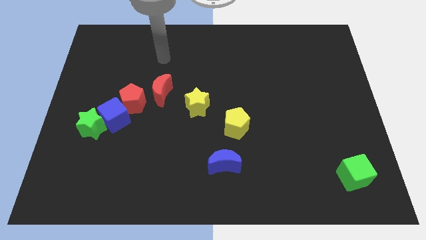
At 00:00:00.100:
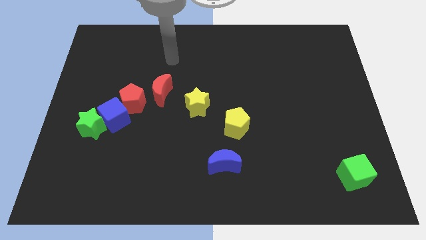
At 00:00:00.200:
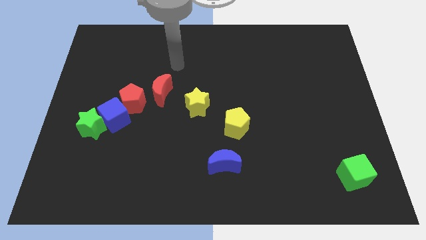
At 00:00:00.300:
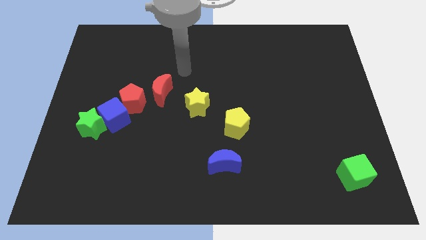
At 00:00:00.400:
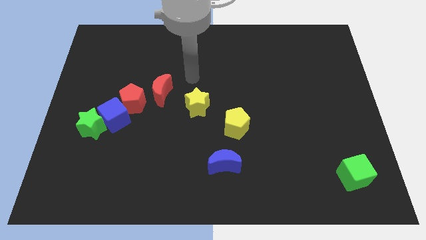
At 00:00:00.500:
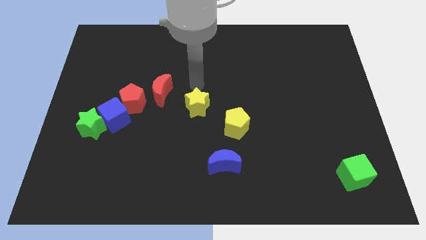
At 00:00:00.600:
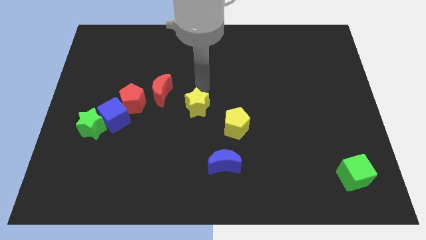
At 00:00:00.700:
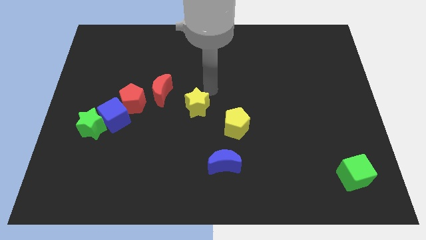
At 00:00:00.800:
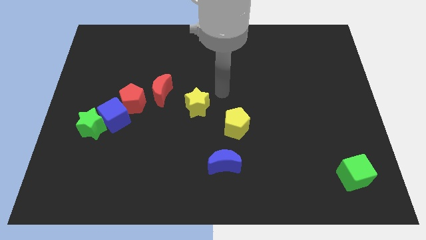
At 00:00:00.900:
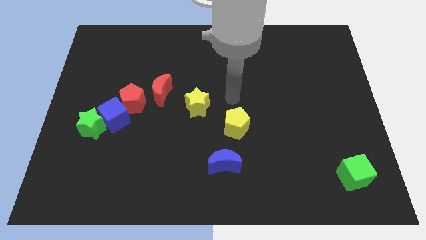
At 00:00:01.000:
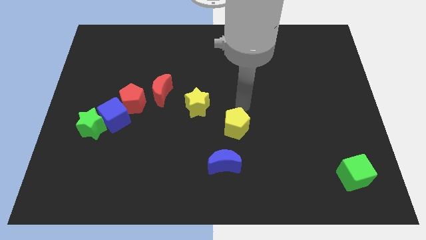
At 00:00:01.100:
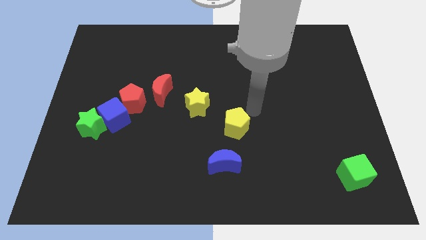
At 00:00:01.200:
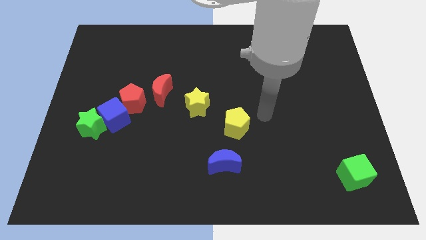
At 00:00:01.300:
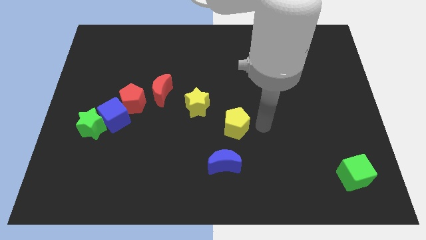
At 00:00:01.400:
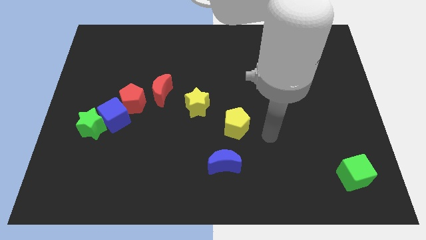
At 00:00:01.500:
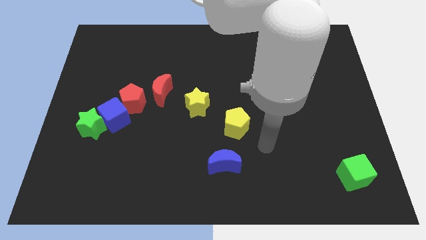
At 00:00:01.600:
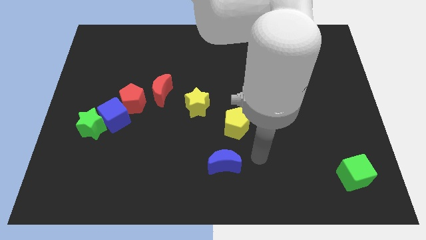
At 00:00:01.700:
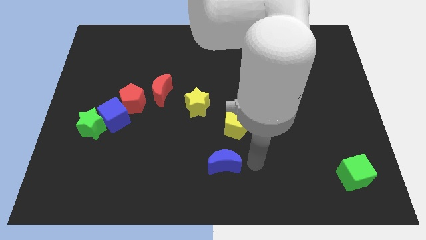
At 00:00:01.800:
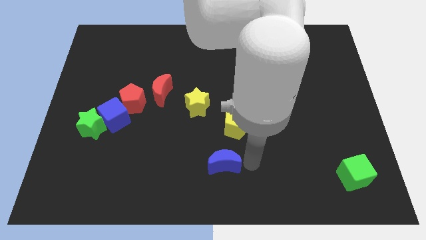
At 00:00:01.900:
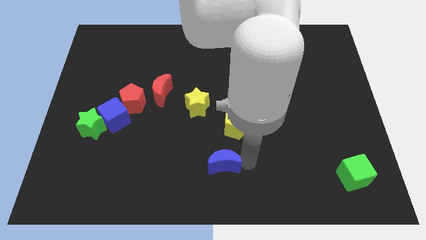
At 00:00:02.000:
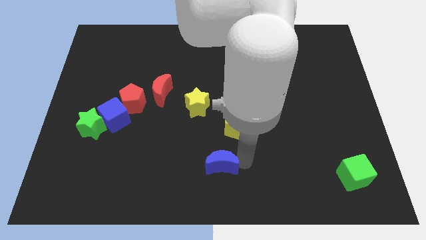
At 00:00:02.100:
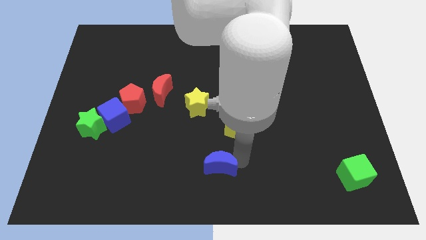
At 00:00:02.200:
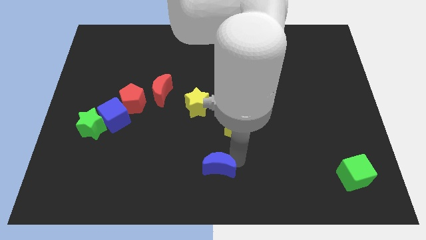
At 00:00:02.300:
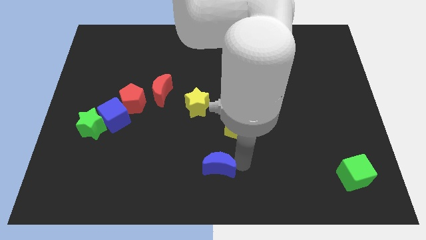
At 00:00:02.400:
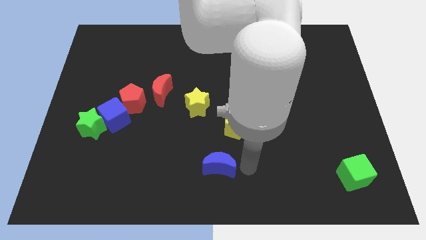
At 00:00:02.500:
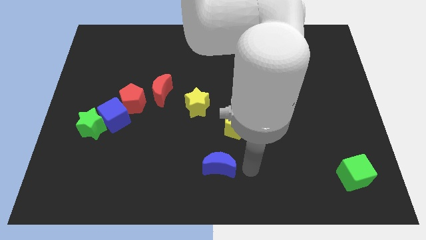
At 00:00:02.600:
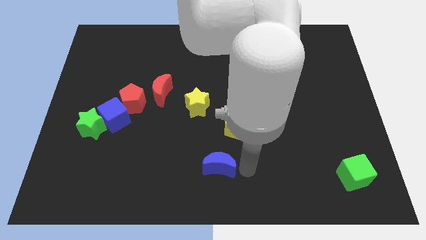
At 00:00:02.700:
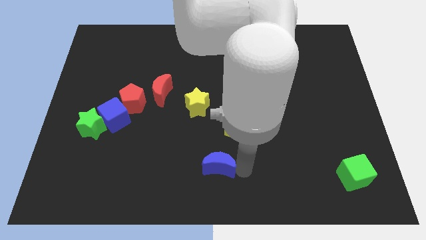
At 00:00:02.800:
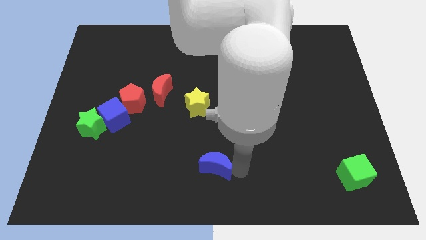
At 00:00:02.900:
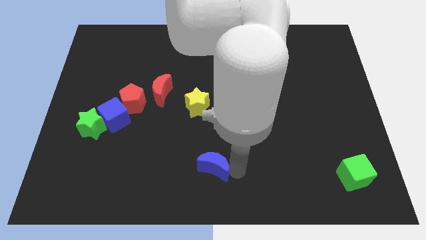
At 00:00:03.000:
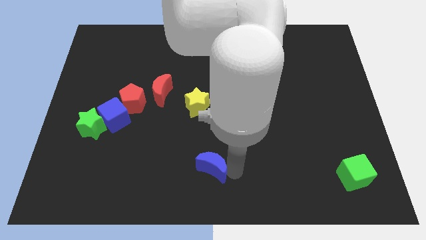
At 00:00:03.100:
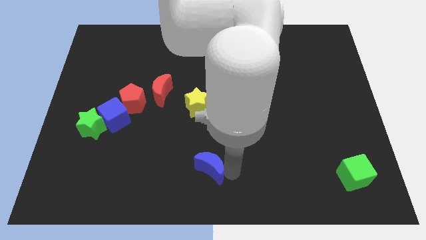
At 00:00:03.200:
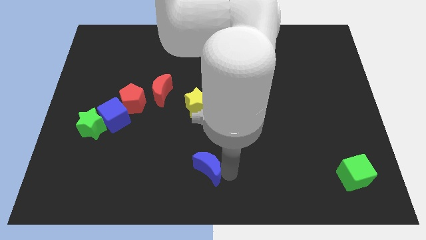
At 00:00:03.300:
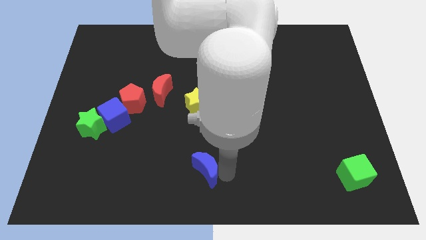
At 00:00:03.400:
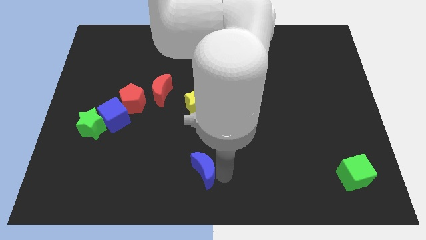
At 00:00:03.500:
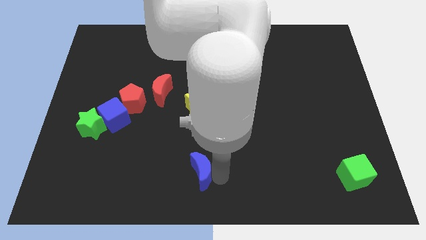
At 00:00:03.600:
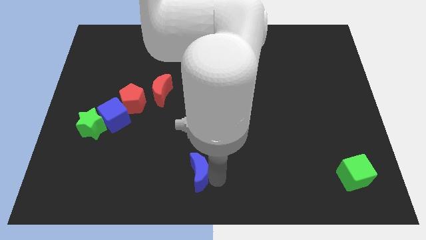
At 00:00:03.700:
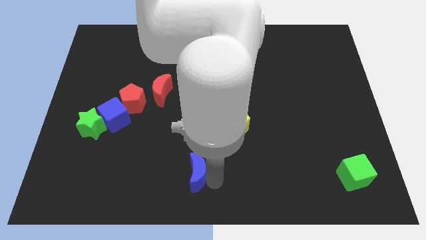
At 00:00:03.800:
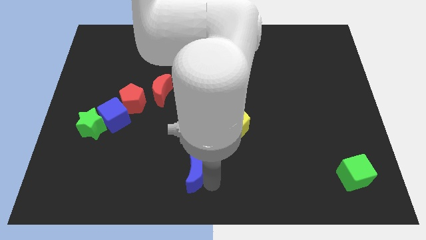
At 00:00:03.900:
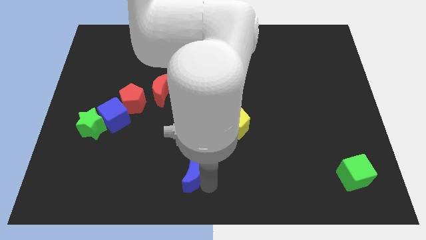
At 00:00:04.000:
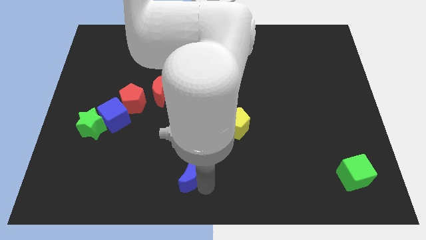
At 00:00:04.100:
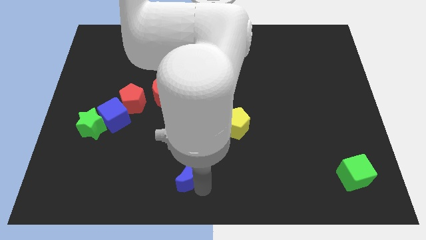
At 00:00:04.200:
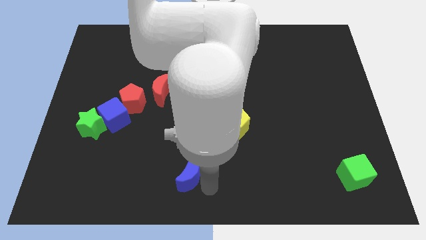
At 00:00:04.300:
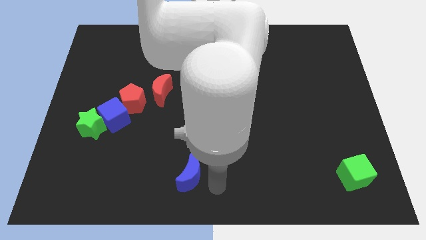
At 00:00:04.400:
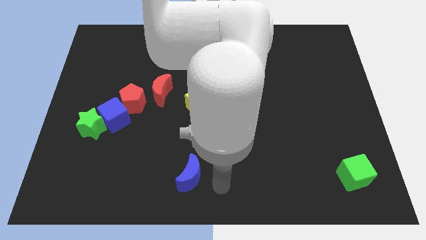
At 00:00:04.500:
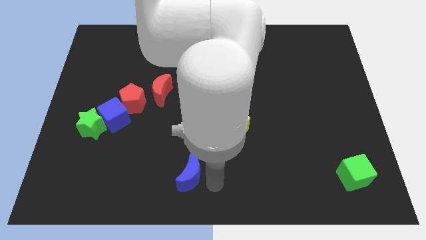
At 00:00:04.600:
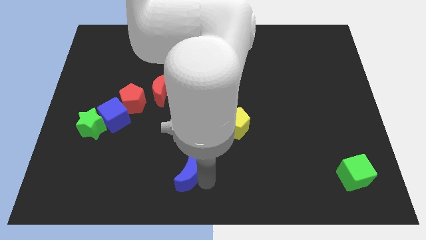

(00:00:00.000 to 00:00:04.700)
move the blue moon slightly left

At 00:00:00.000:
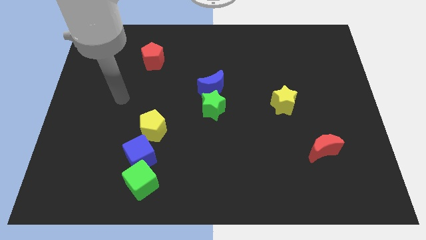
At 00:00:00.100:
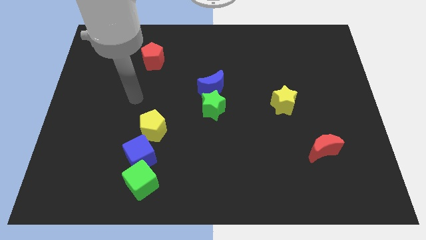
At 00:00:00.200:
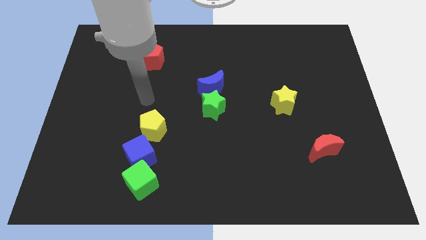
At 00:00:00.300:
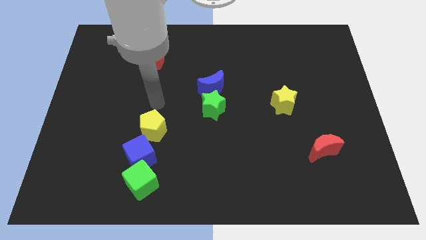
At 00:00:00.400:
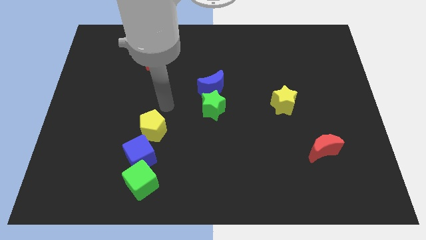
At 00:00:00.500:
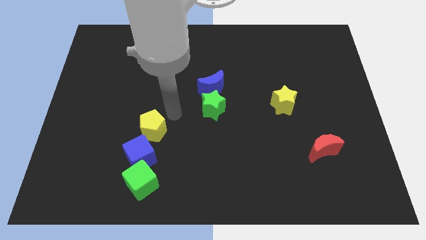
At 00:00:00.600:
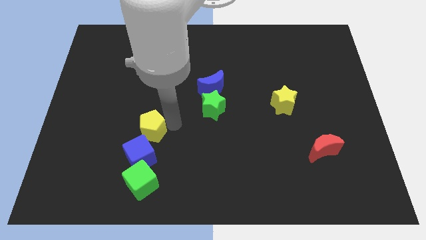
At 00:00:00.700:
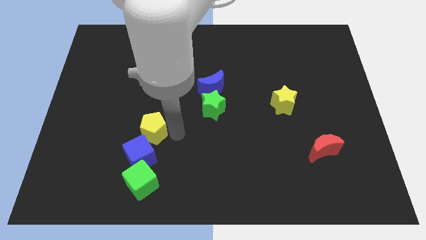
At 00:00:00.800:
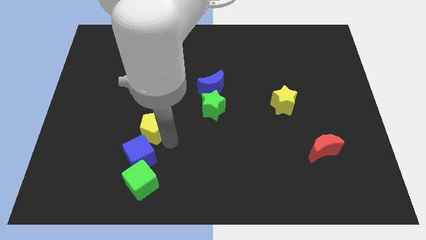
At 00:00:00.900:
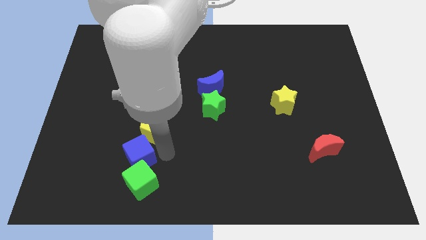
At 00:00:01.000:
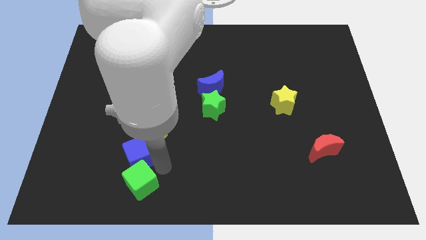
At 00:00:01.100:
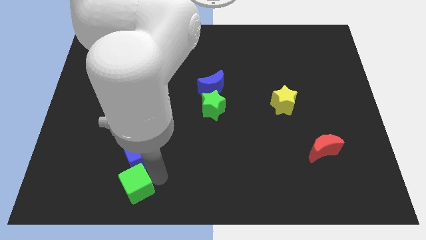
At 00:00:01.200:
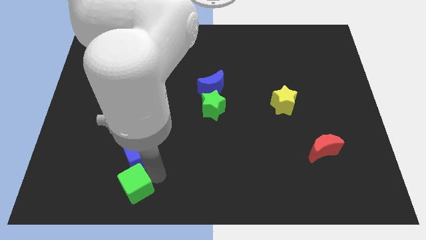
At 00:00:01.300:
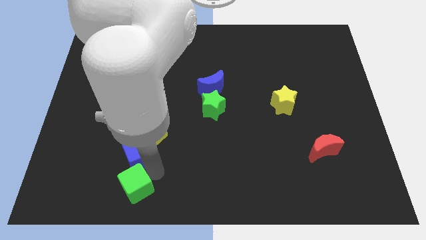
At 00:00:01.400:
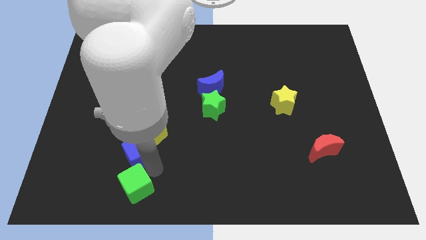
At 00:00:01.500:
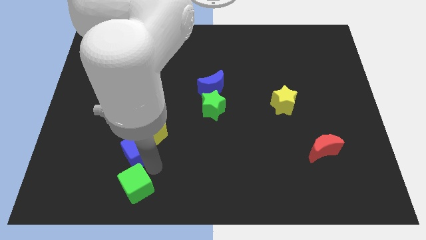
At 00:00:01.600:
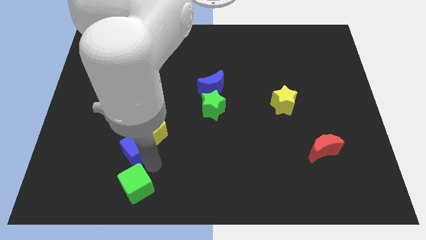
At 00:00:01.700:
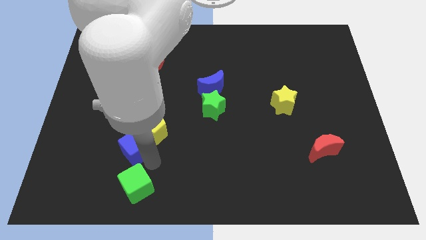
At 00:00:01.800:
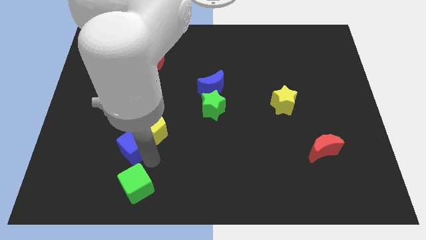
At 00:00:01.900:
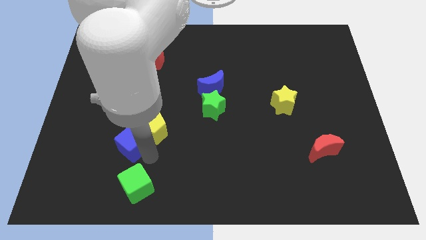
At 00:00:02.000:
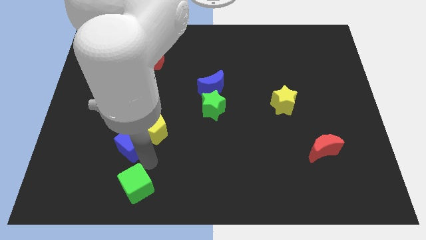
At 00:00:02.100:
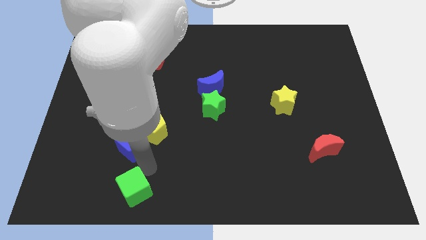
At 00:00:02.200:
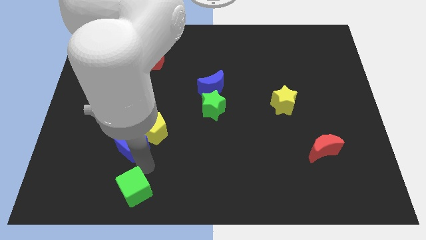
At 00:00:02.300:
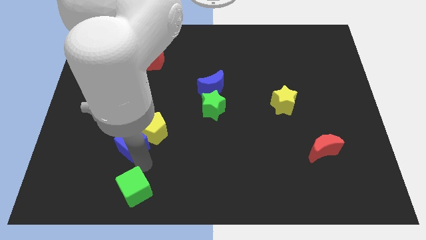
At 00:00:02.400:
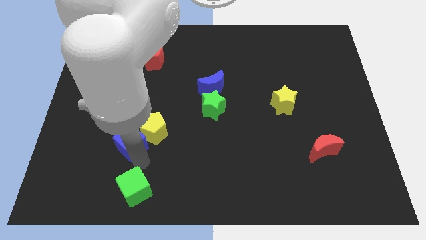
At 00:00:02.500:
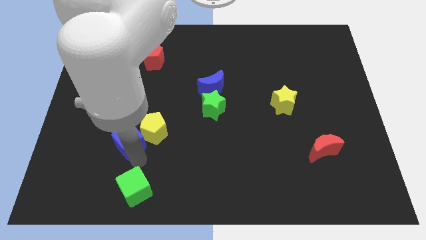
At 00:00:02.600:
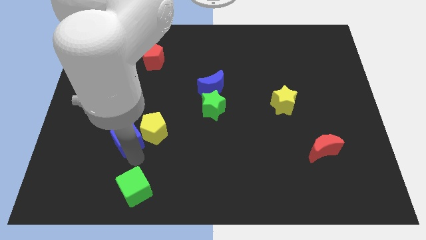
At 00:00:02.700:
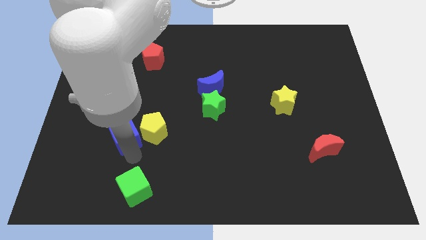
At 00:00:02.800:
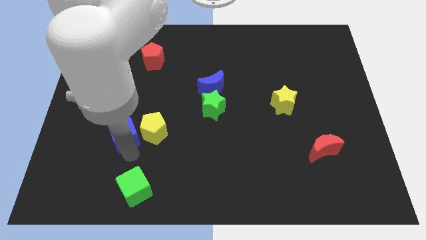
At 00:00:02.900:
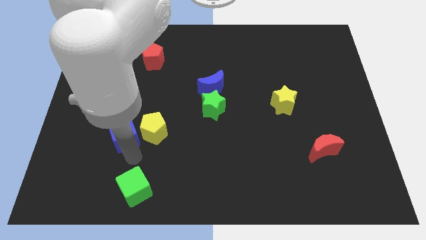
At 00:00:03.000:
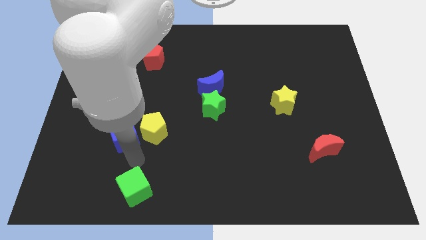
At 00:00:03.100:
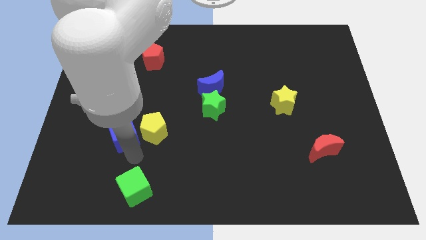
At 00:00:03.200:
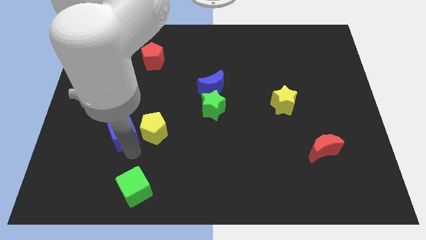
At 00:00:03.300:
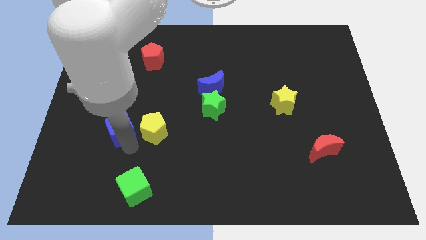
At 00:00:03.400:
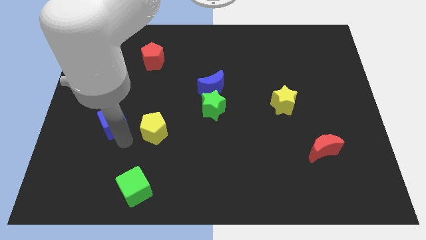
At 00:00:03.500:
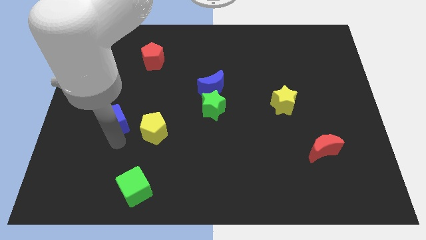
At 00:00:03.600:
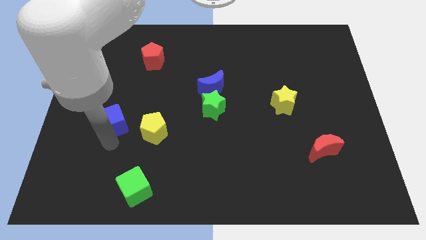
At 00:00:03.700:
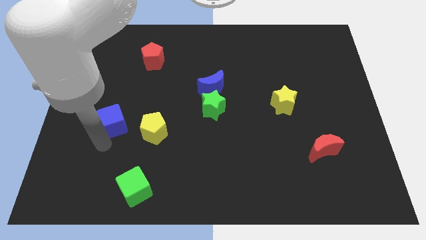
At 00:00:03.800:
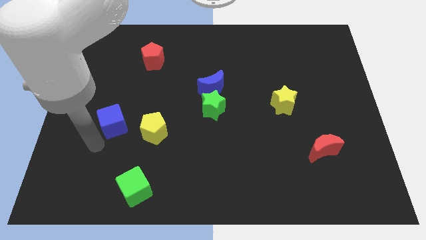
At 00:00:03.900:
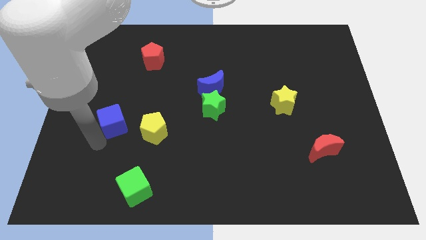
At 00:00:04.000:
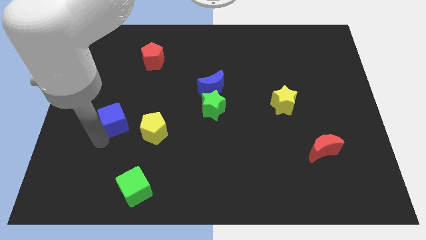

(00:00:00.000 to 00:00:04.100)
slide the blue cube upwards a little bit
